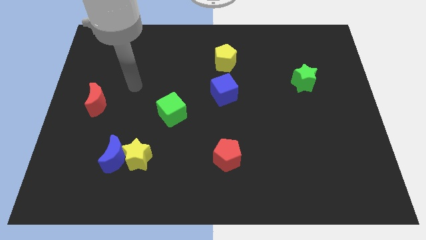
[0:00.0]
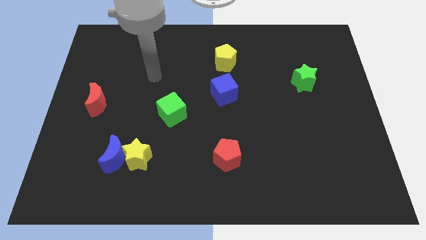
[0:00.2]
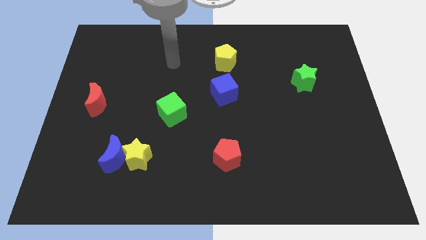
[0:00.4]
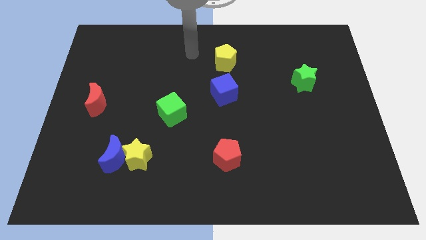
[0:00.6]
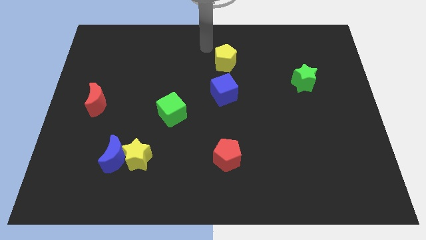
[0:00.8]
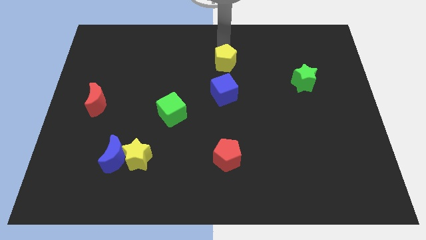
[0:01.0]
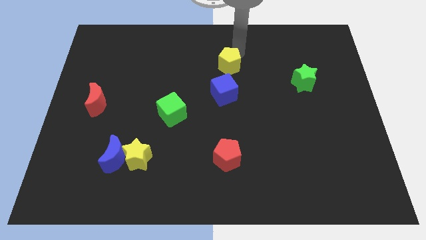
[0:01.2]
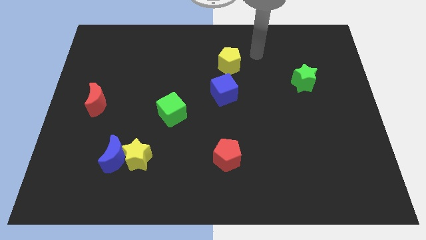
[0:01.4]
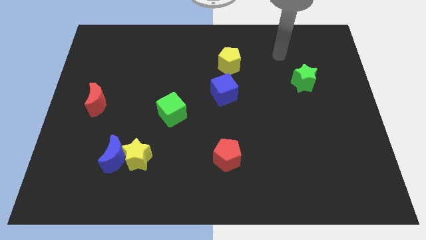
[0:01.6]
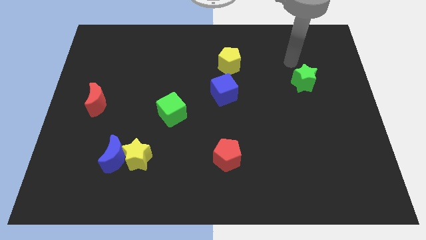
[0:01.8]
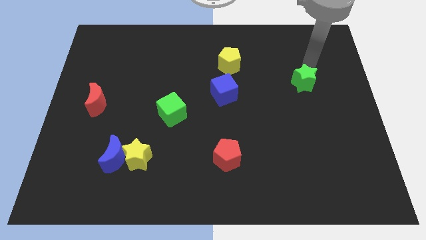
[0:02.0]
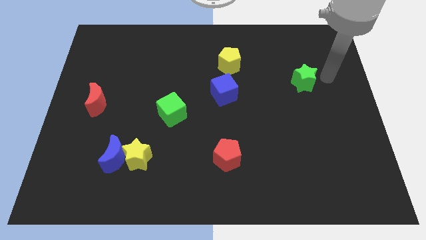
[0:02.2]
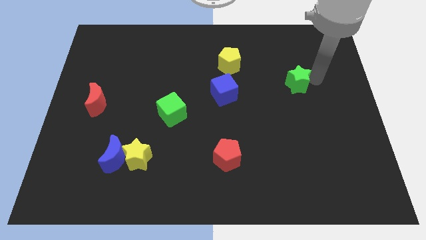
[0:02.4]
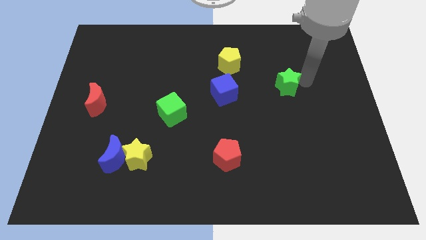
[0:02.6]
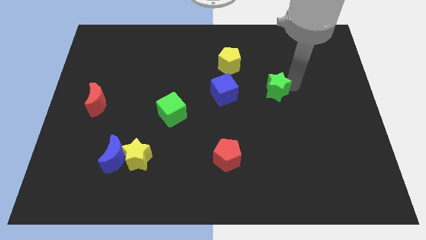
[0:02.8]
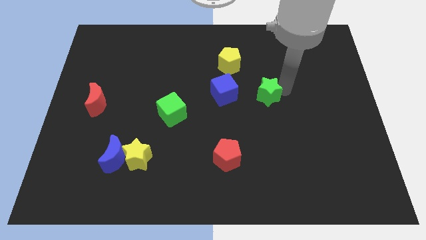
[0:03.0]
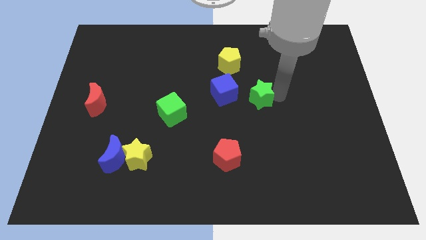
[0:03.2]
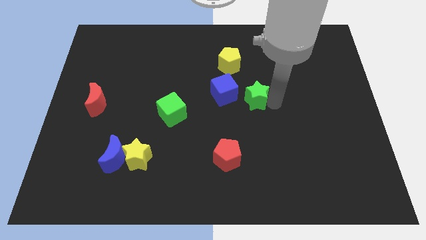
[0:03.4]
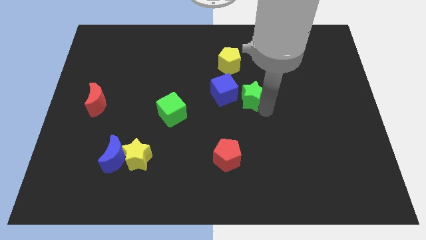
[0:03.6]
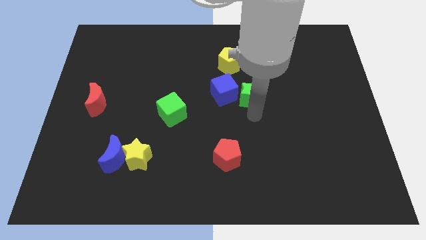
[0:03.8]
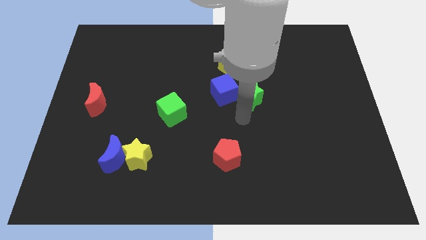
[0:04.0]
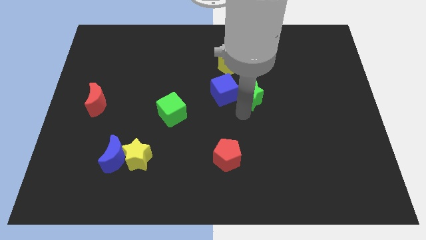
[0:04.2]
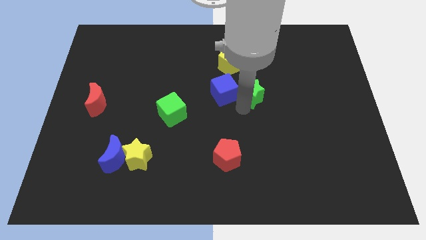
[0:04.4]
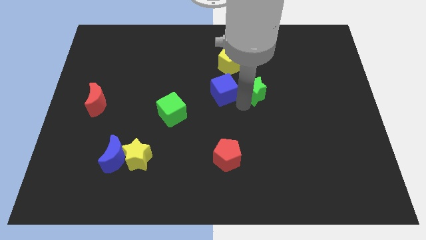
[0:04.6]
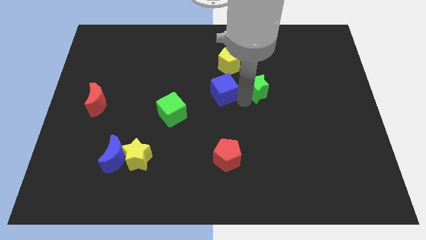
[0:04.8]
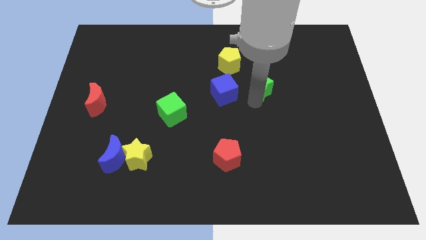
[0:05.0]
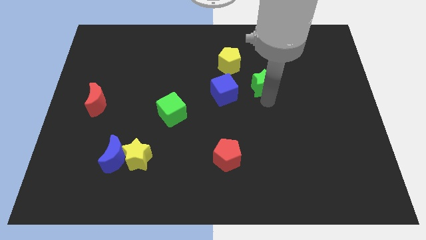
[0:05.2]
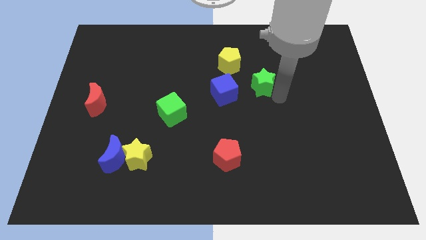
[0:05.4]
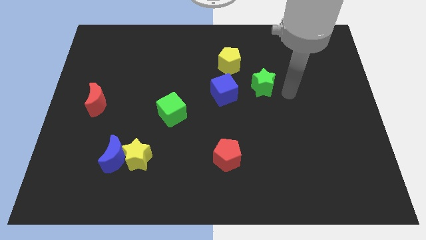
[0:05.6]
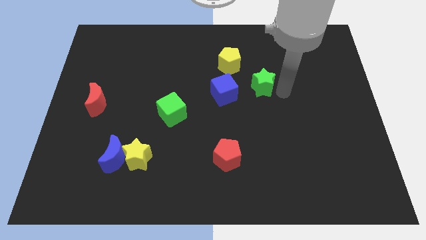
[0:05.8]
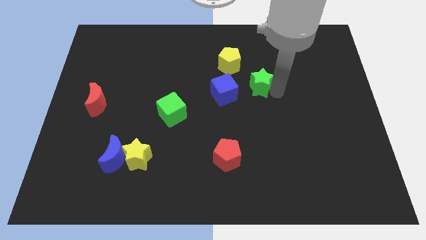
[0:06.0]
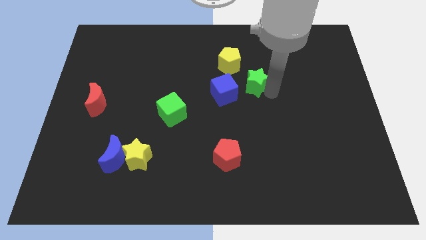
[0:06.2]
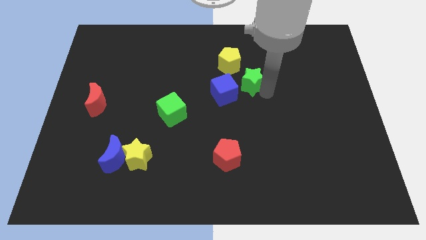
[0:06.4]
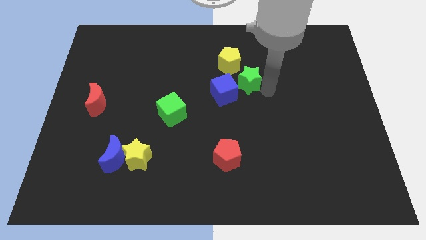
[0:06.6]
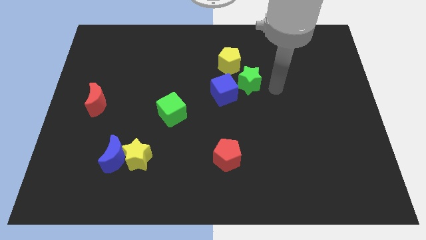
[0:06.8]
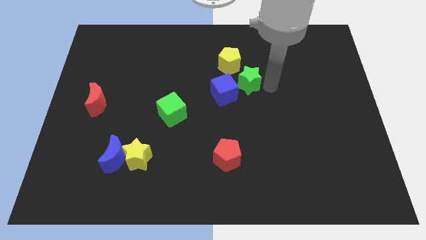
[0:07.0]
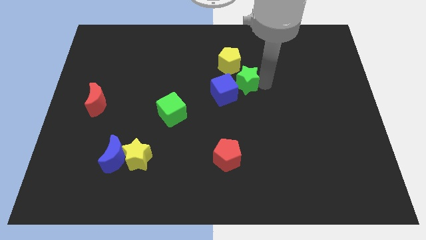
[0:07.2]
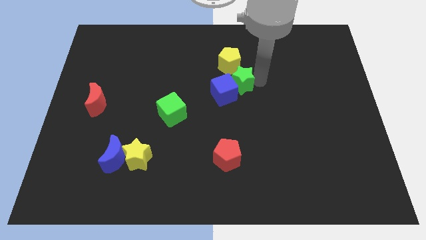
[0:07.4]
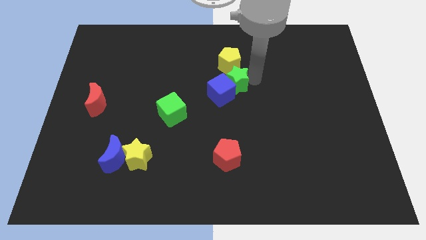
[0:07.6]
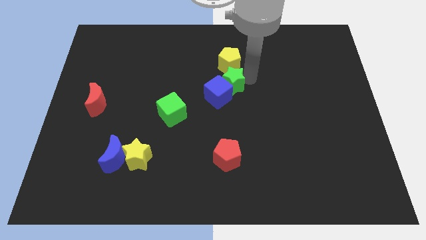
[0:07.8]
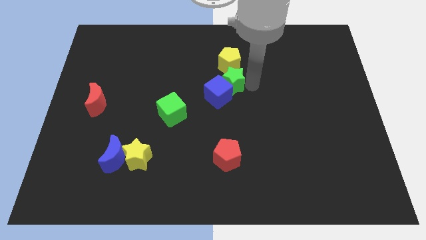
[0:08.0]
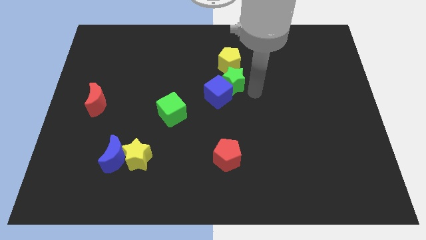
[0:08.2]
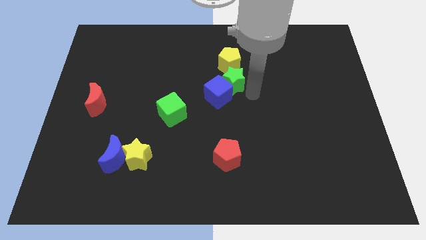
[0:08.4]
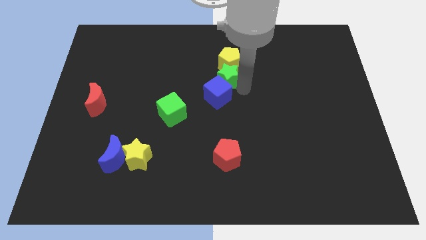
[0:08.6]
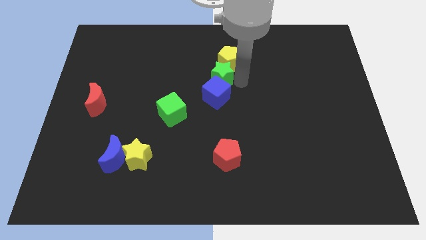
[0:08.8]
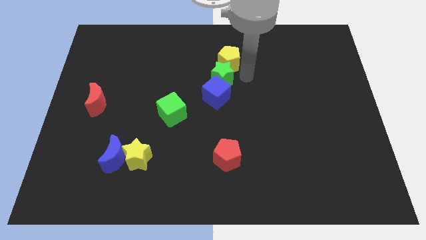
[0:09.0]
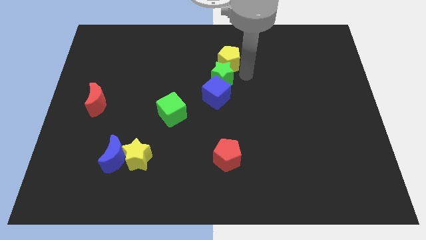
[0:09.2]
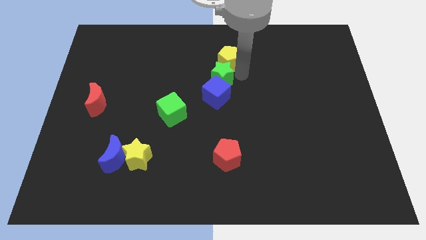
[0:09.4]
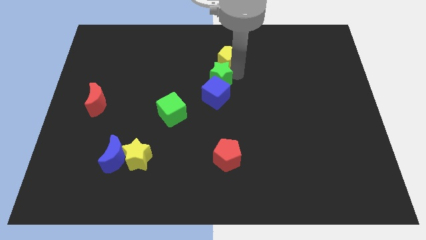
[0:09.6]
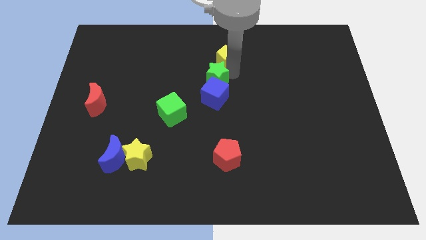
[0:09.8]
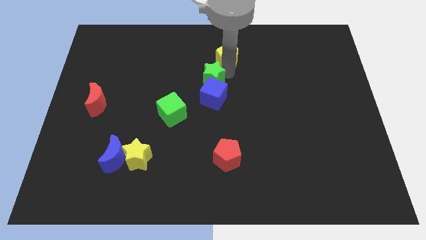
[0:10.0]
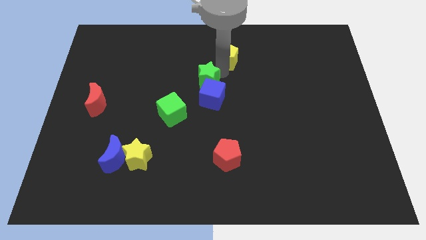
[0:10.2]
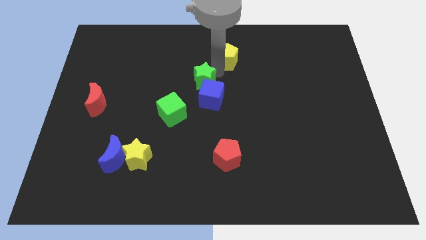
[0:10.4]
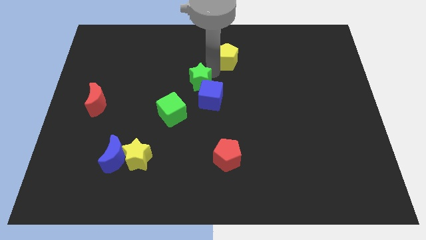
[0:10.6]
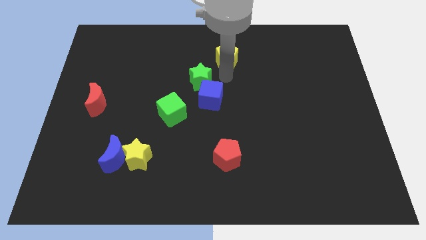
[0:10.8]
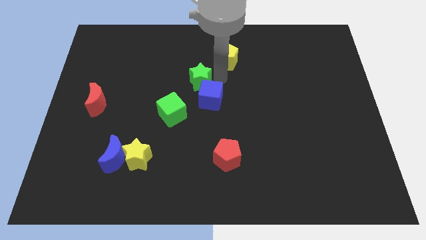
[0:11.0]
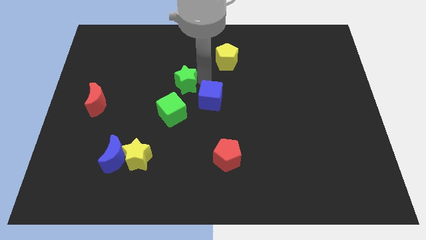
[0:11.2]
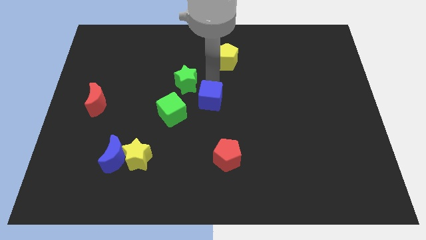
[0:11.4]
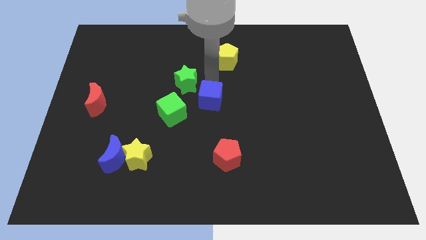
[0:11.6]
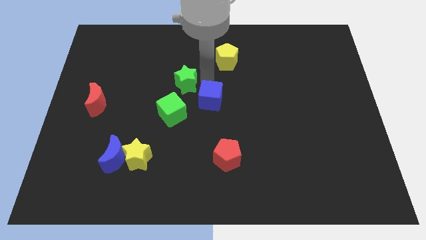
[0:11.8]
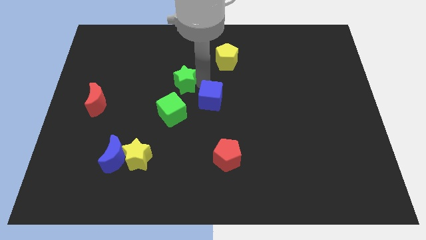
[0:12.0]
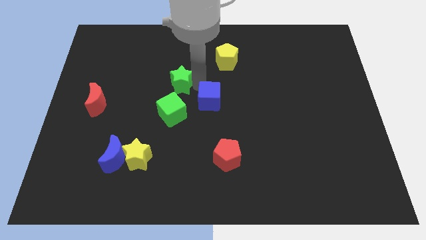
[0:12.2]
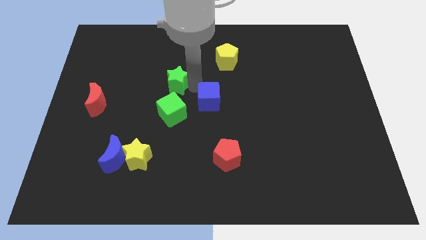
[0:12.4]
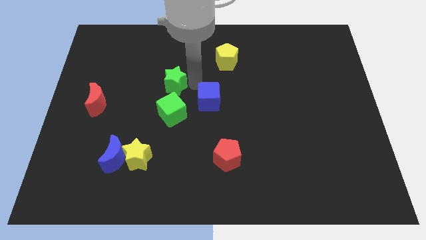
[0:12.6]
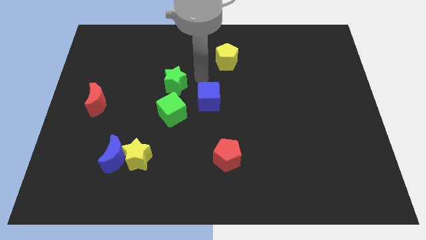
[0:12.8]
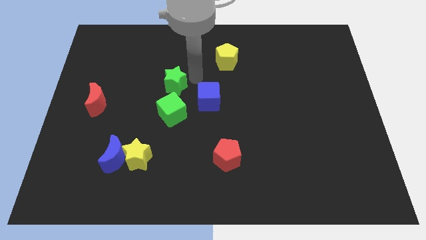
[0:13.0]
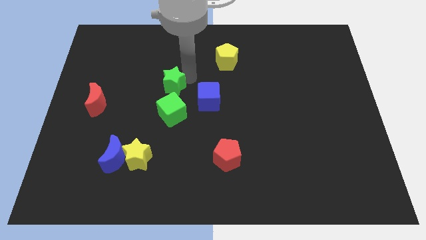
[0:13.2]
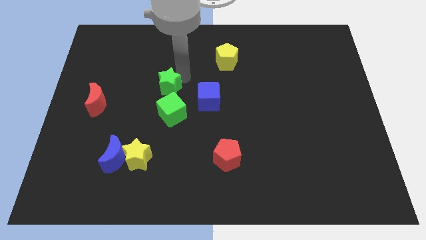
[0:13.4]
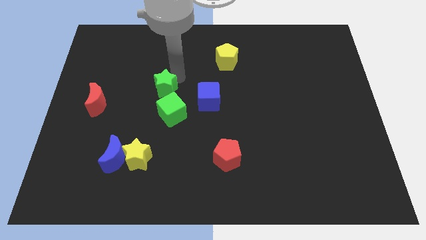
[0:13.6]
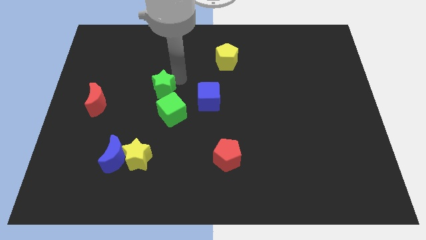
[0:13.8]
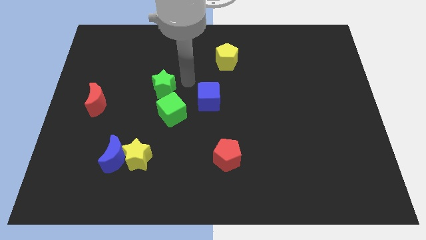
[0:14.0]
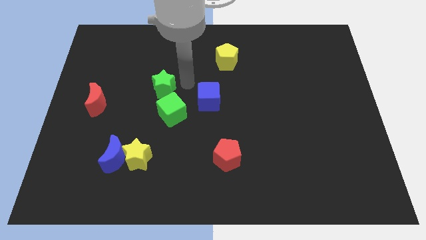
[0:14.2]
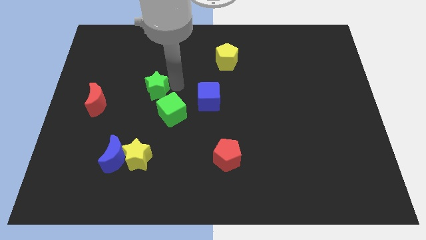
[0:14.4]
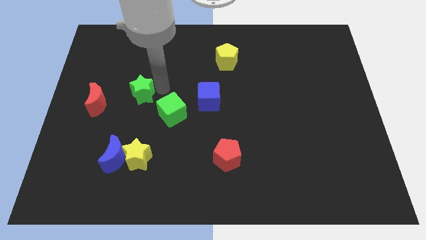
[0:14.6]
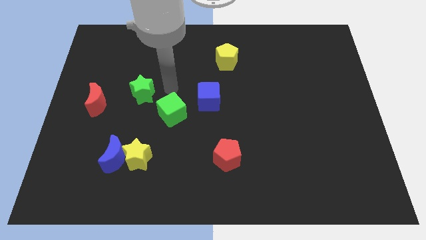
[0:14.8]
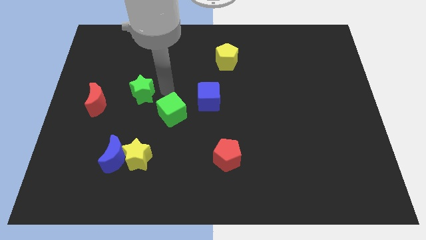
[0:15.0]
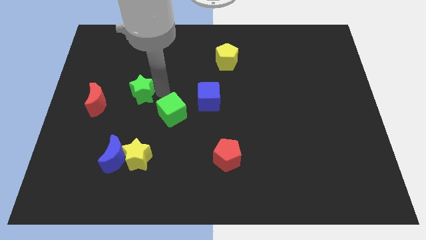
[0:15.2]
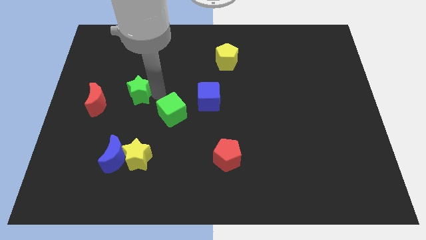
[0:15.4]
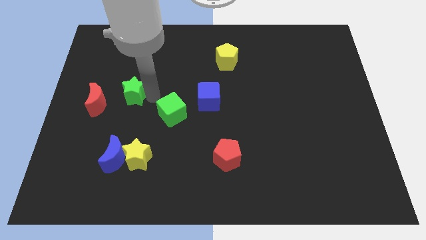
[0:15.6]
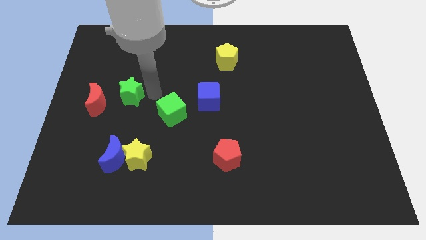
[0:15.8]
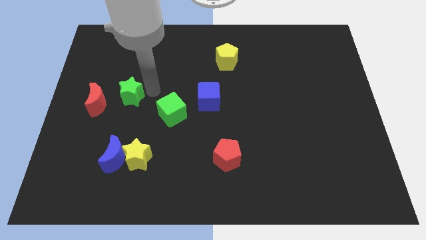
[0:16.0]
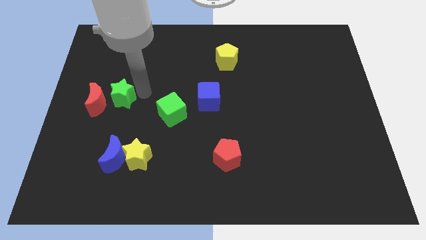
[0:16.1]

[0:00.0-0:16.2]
push the green star towards the red moon
